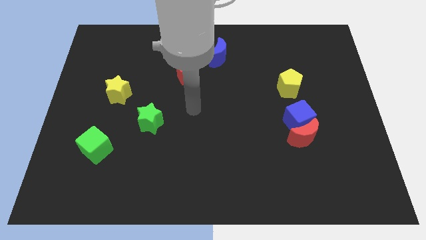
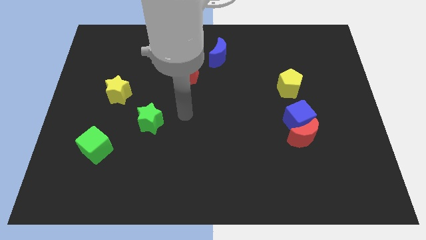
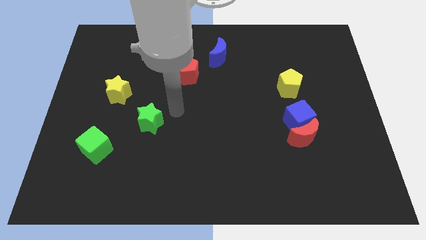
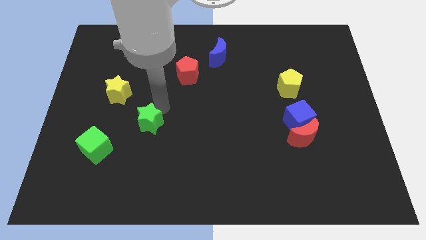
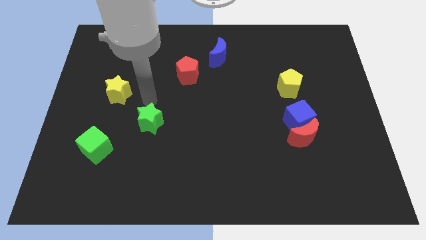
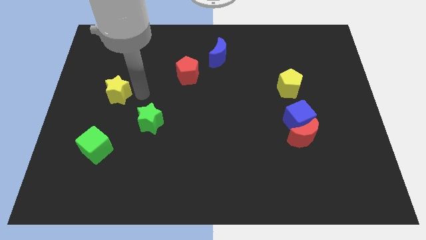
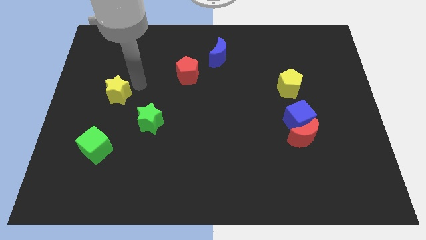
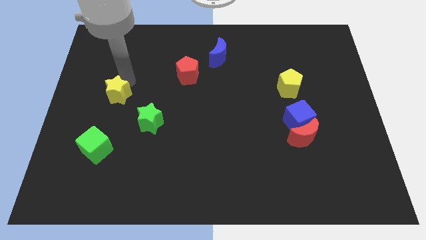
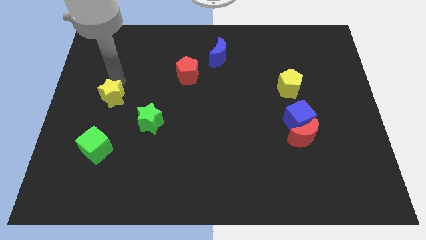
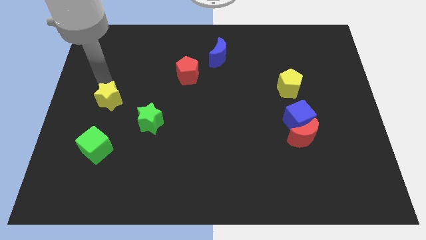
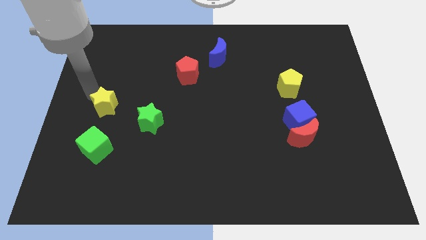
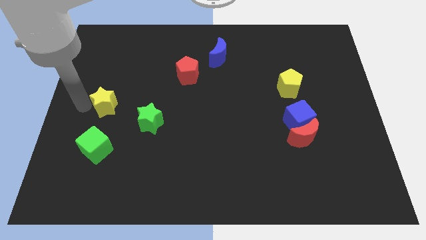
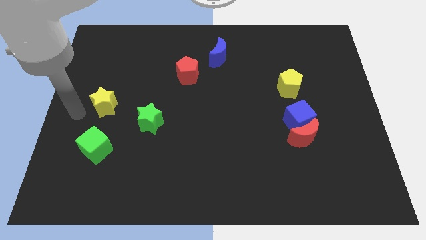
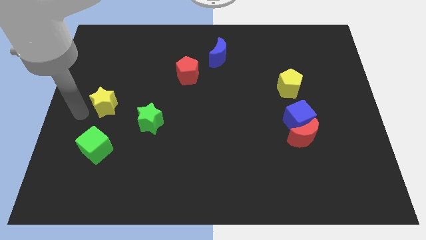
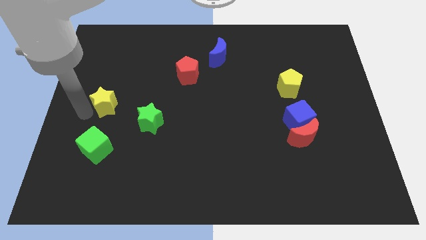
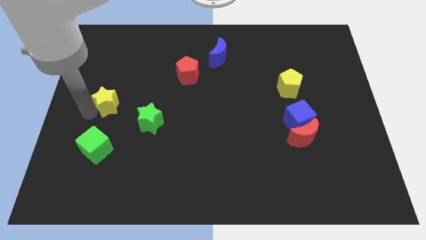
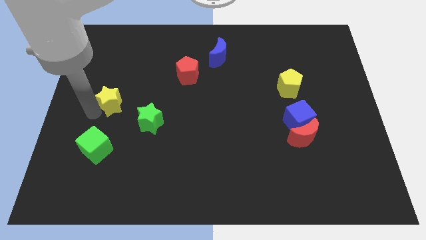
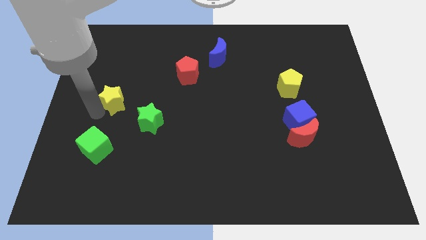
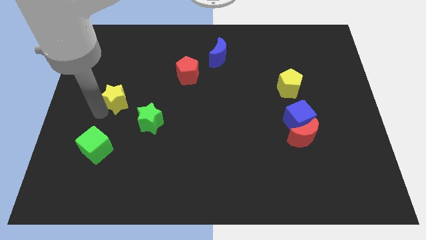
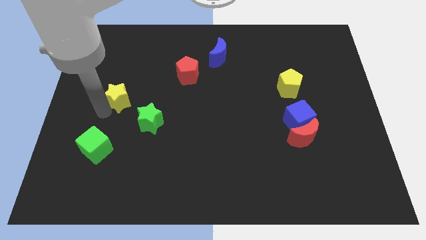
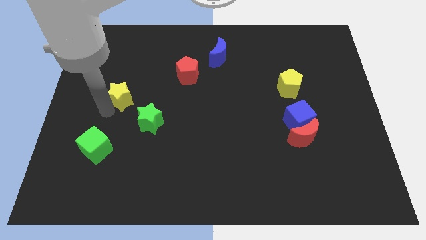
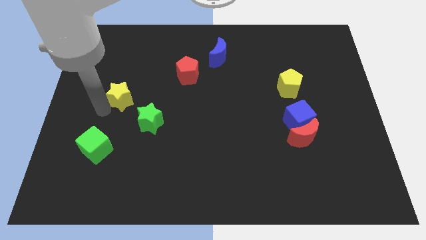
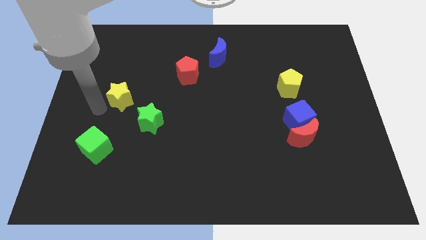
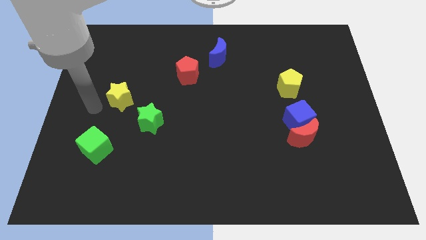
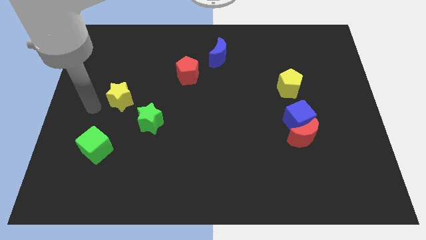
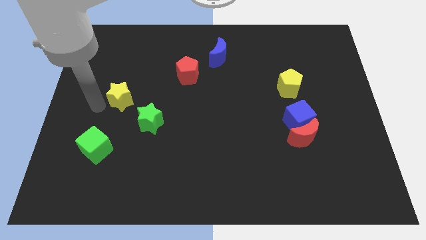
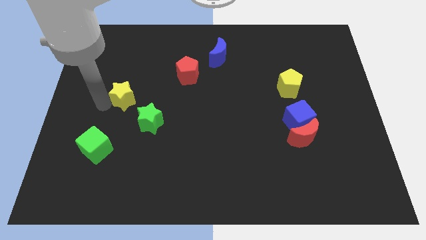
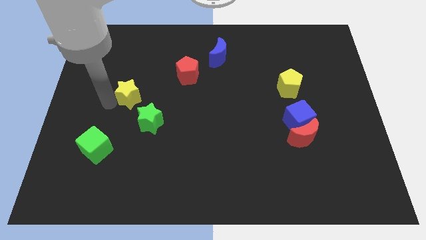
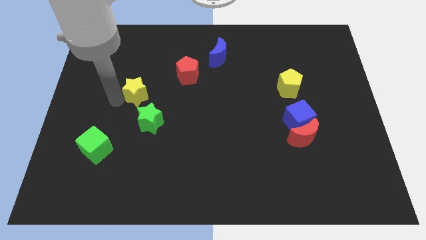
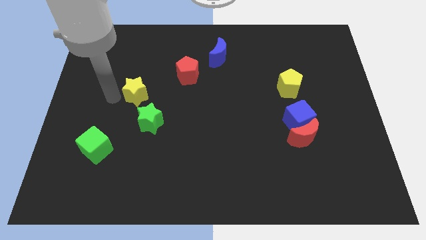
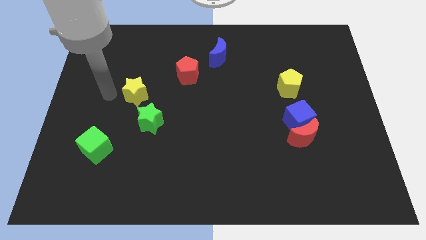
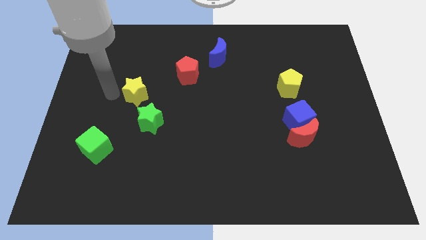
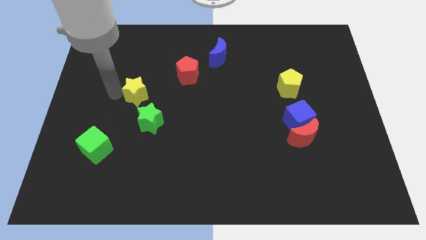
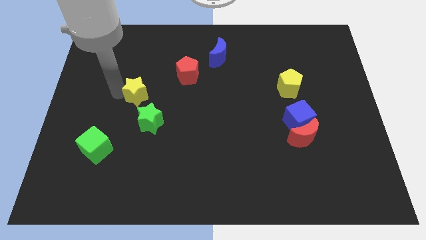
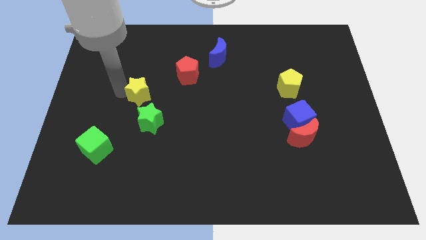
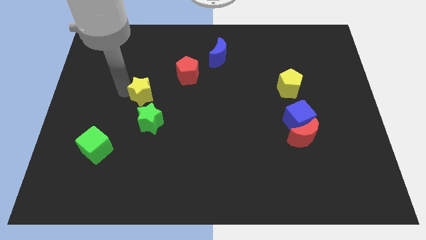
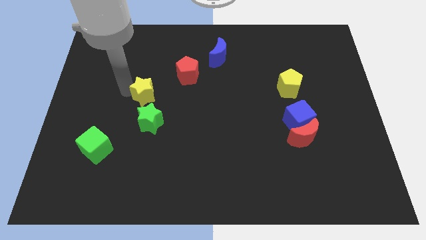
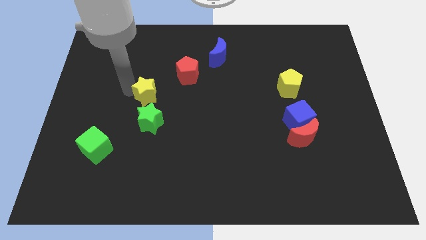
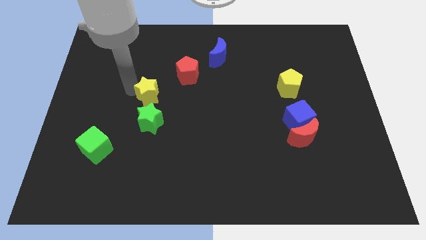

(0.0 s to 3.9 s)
slide the yellow star somewhat to the right

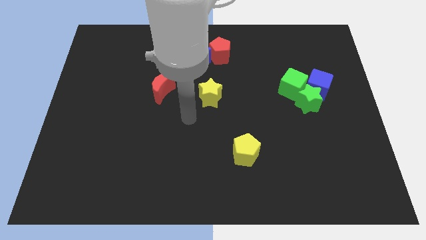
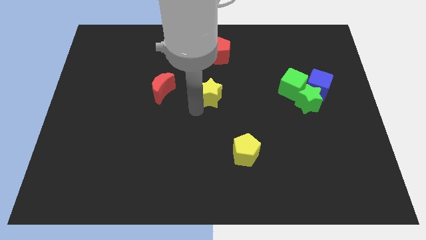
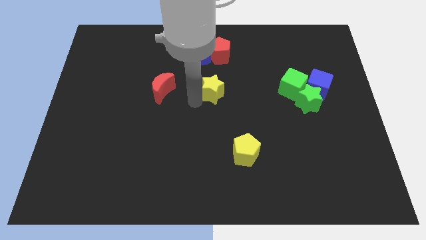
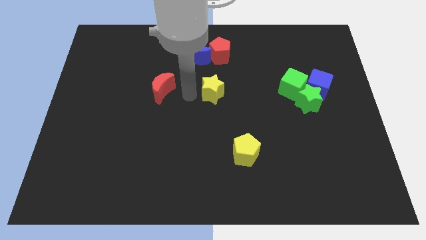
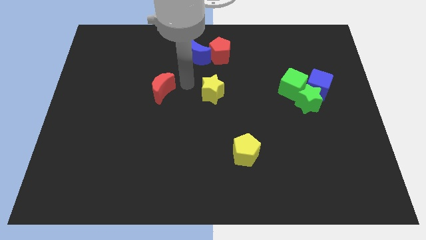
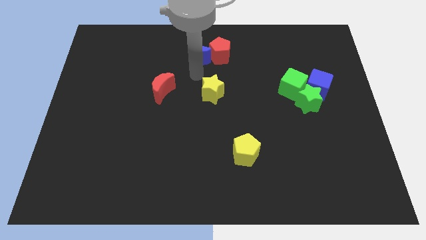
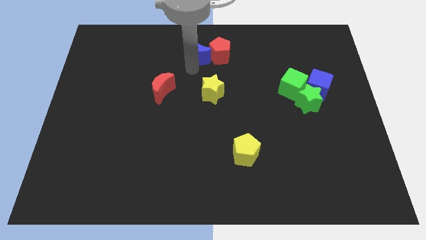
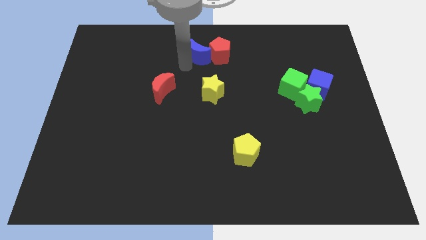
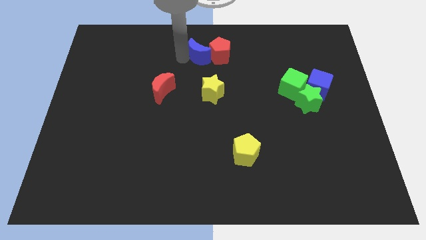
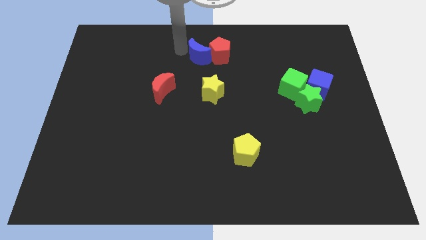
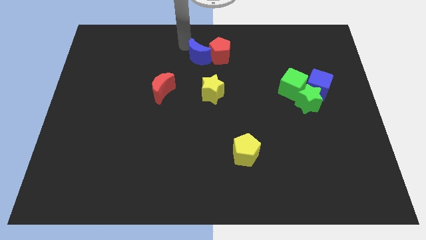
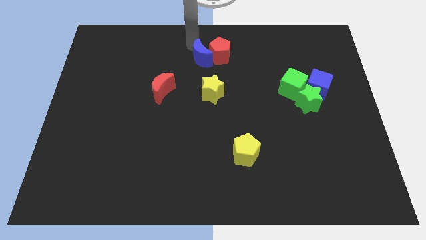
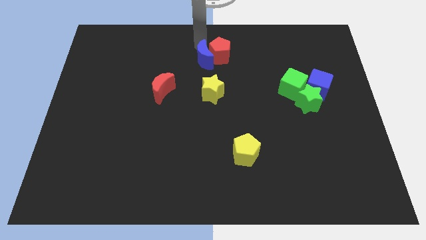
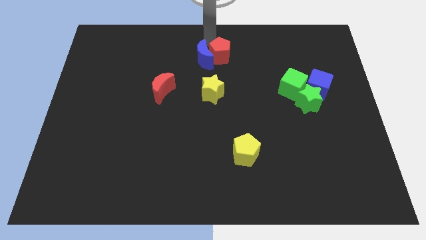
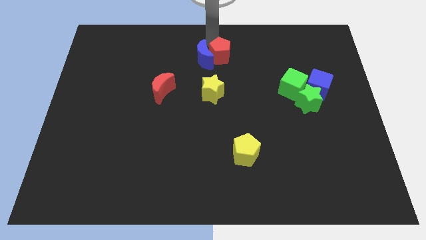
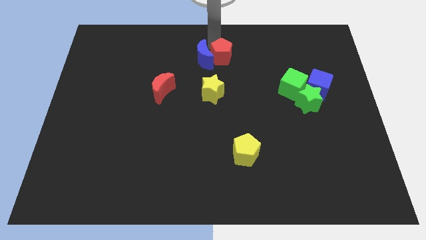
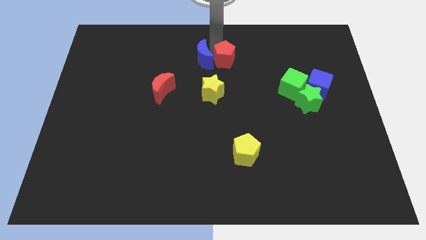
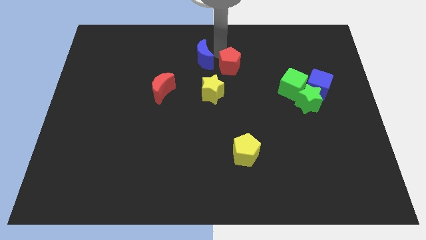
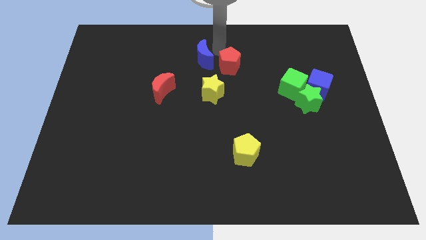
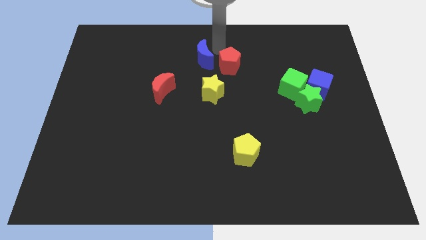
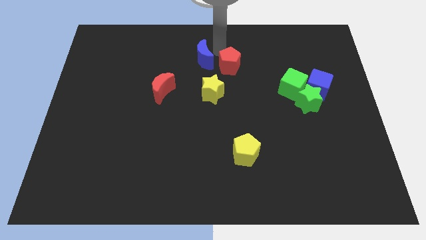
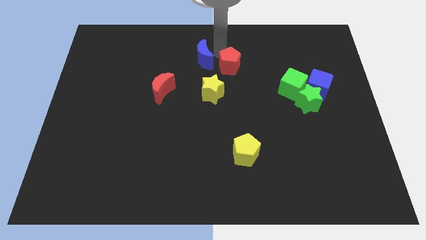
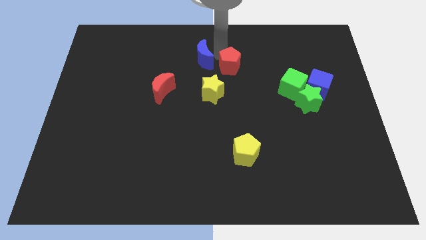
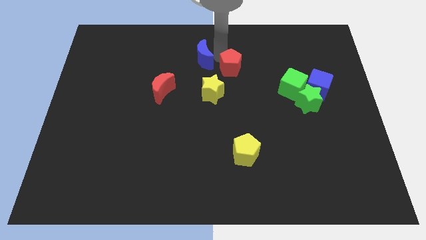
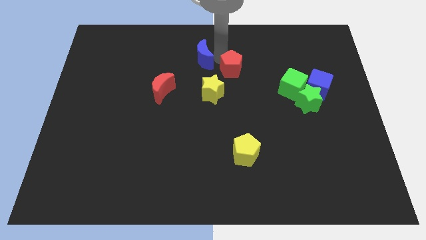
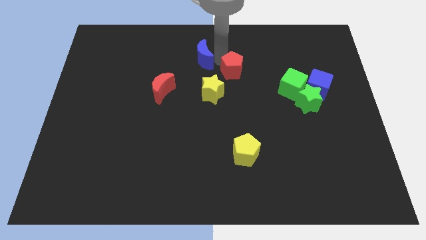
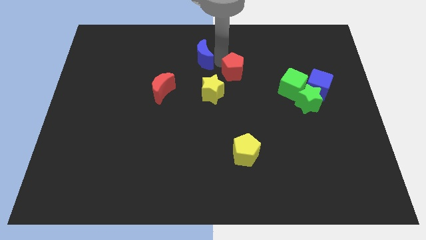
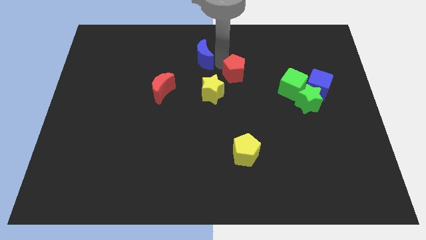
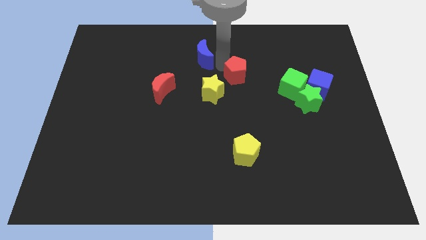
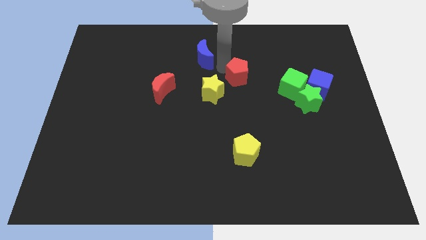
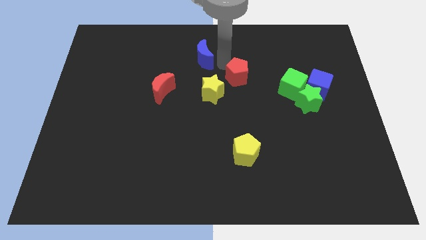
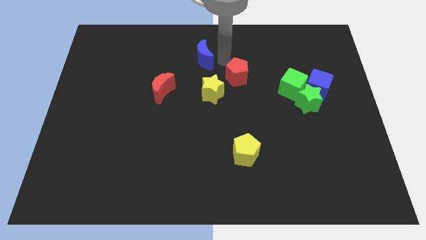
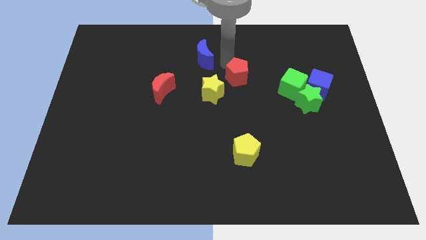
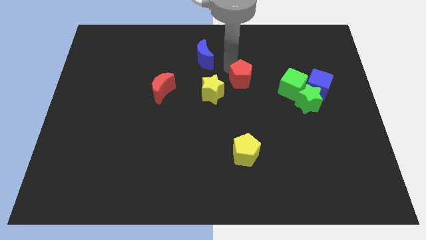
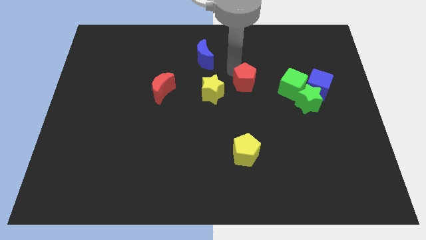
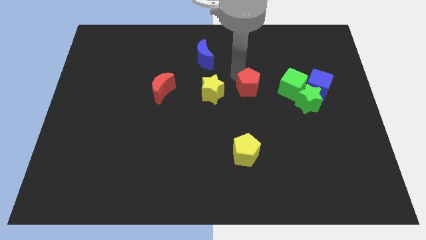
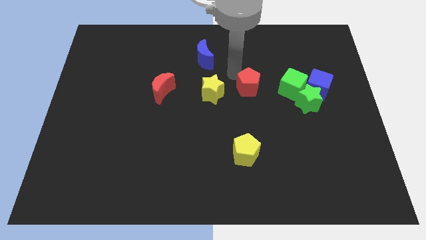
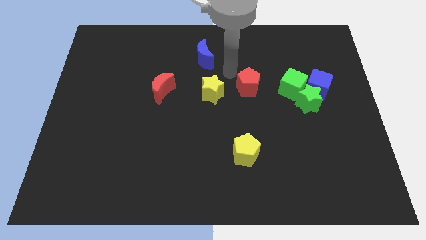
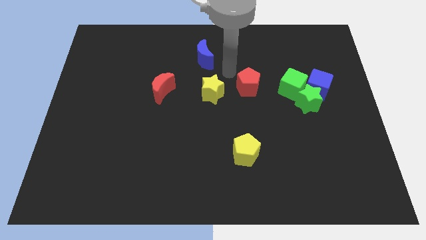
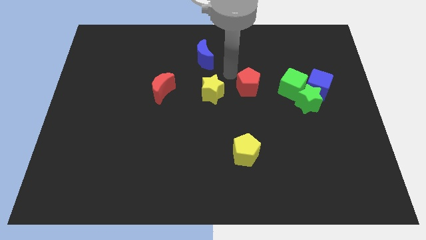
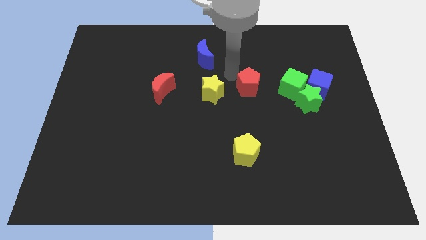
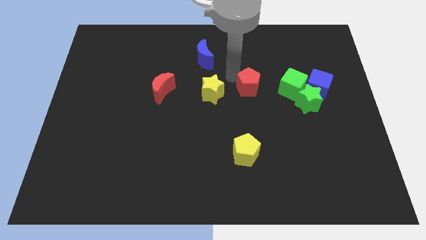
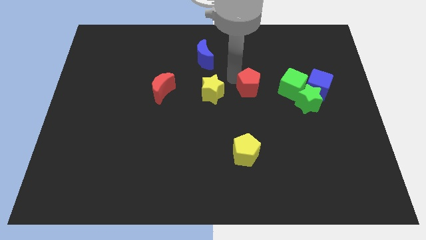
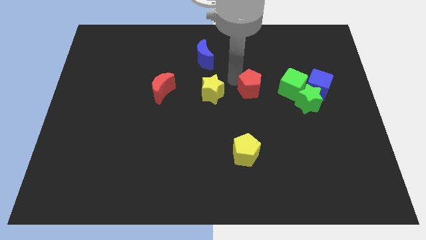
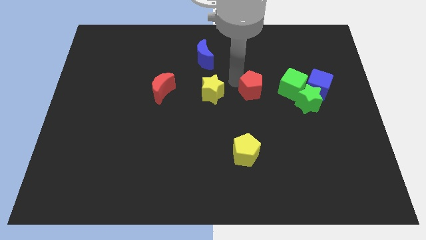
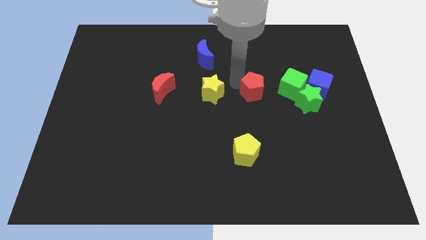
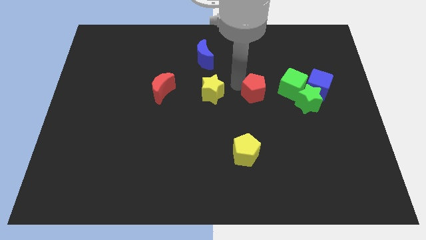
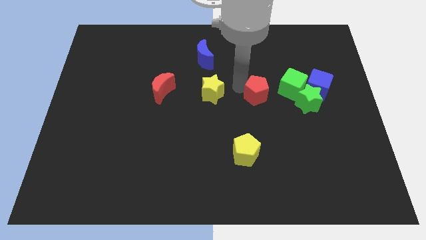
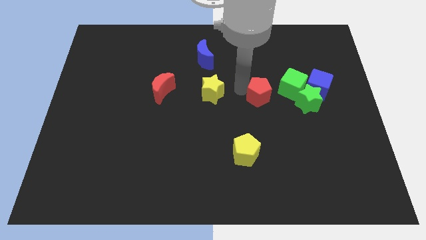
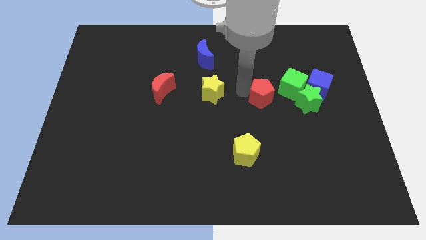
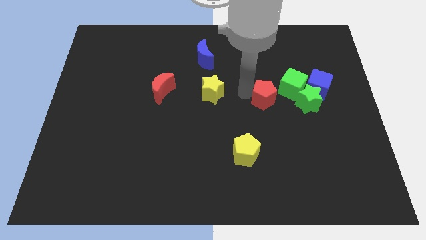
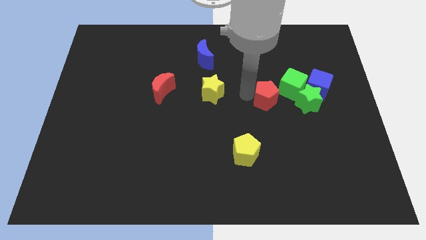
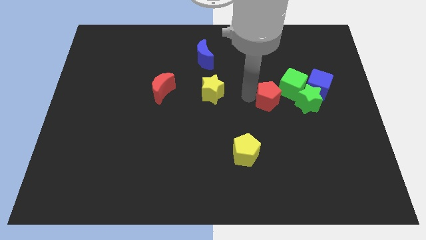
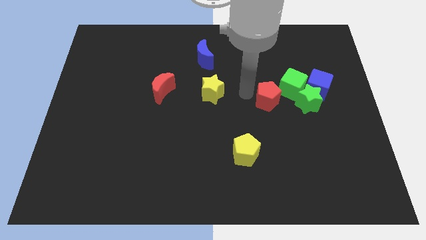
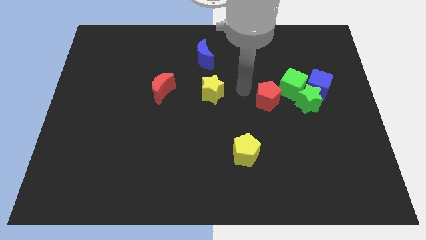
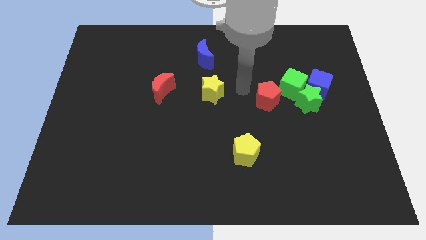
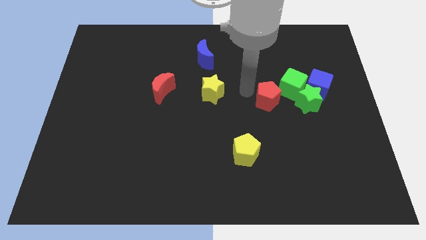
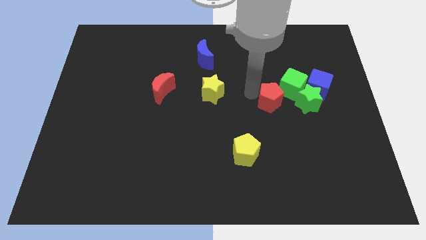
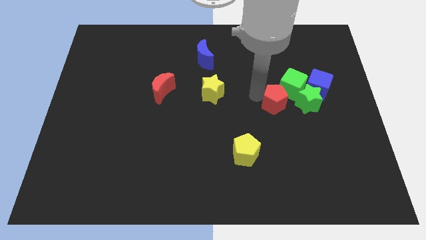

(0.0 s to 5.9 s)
move the red pentagon downwards and right
